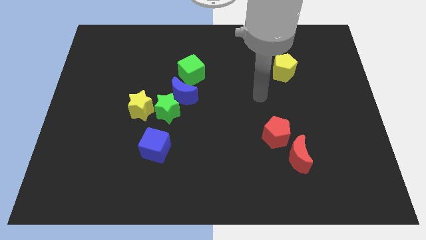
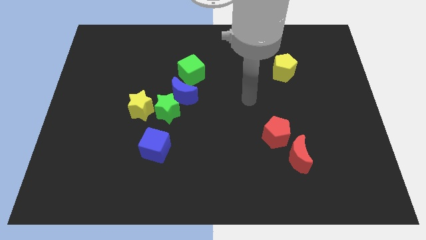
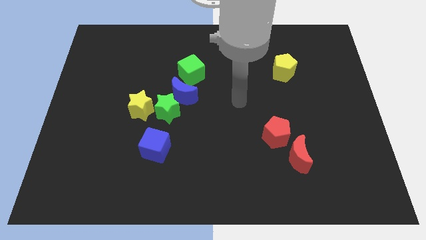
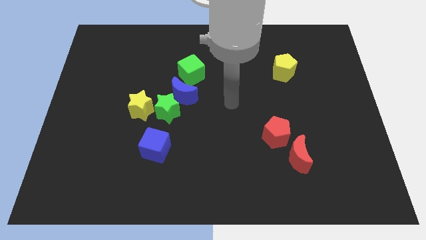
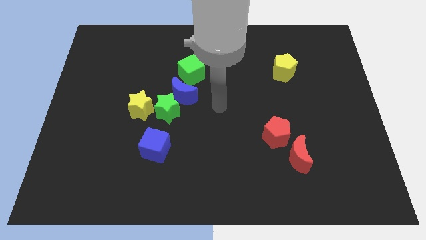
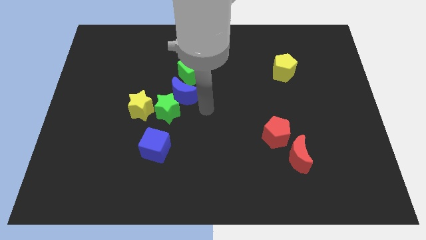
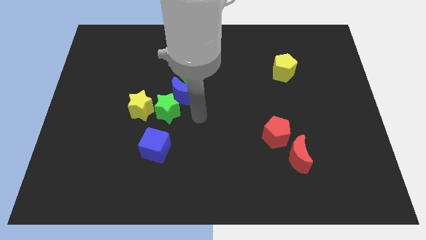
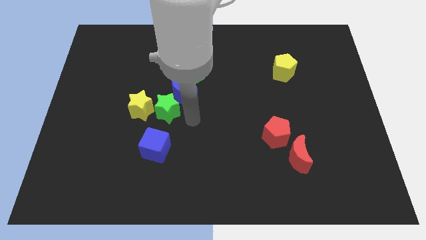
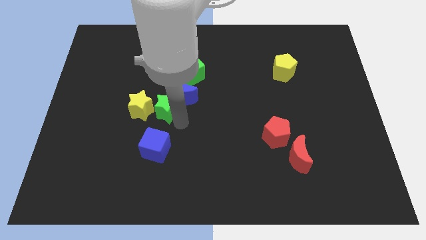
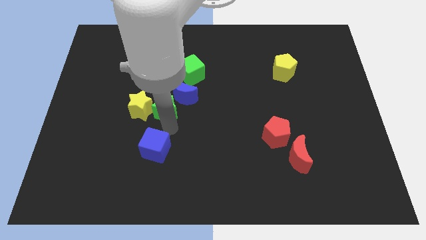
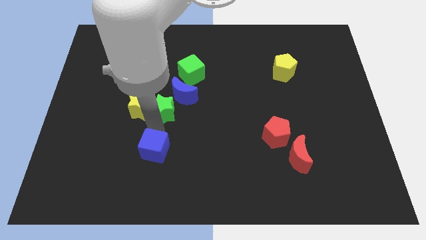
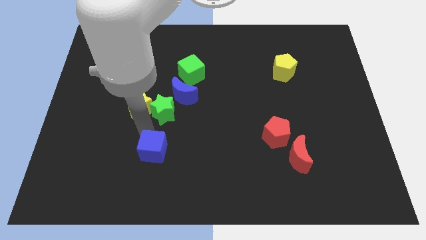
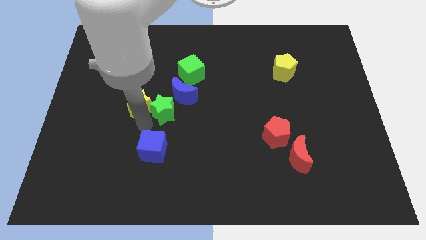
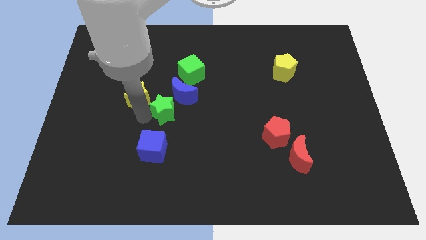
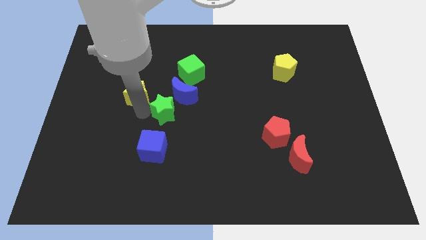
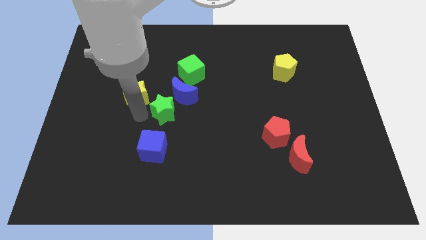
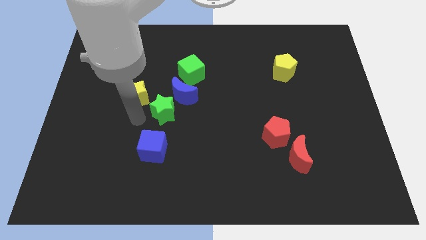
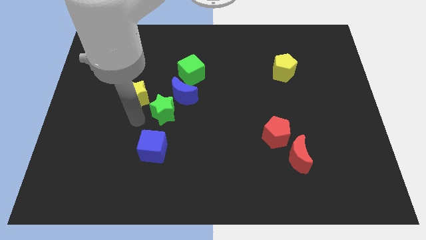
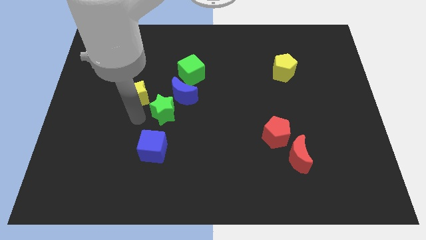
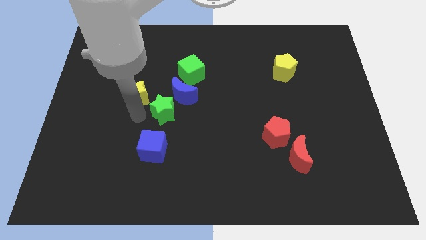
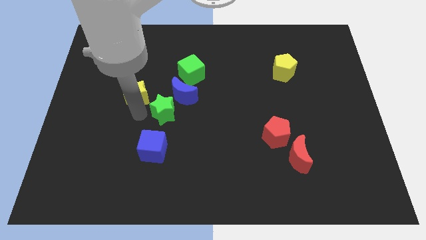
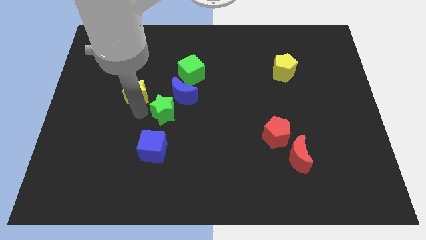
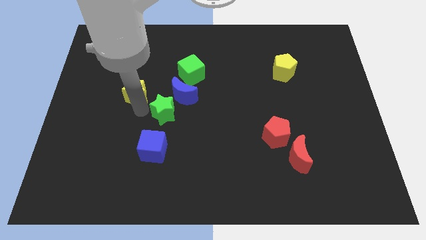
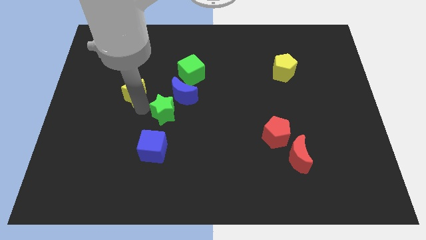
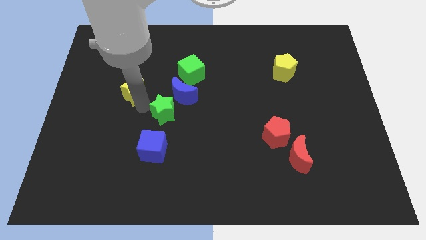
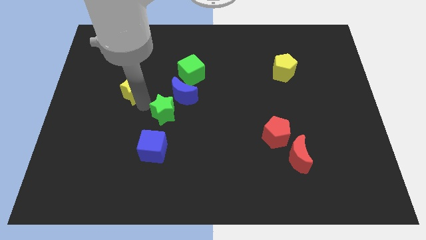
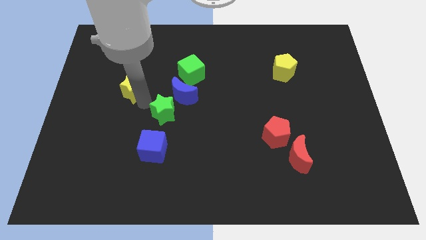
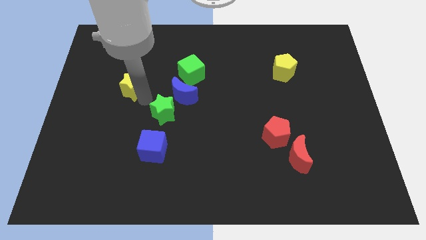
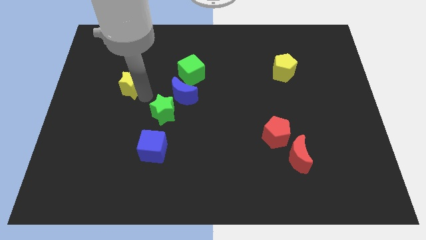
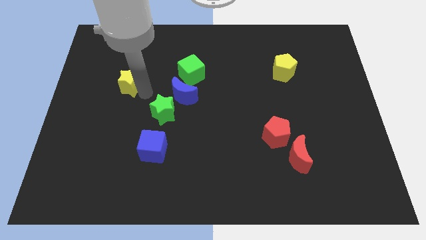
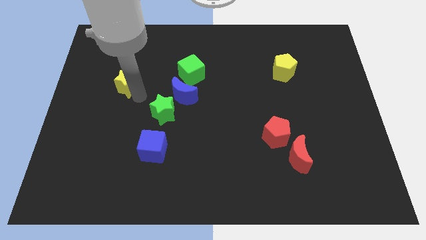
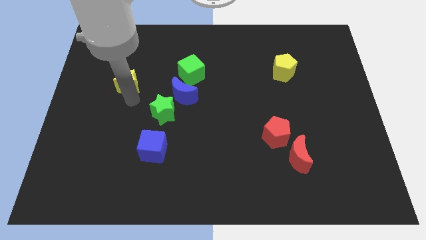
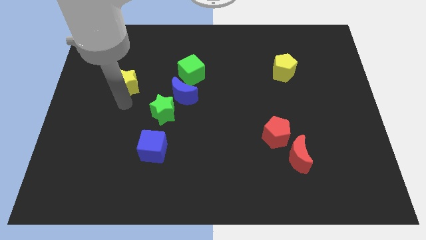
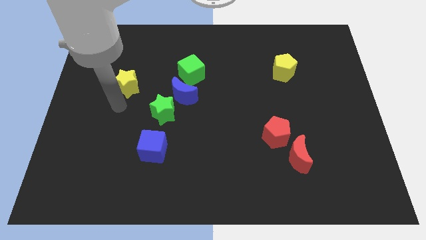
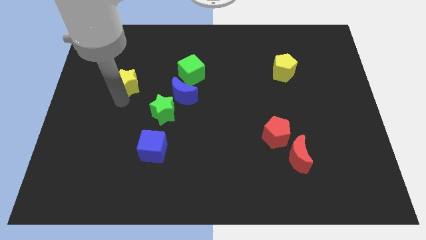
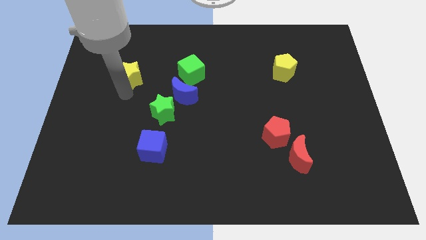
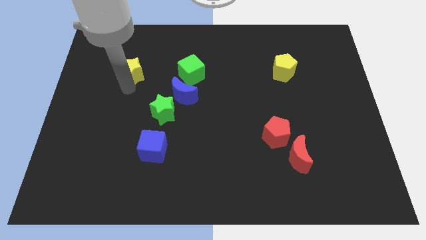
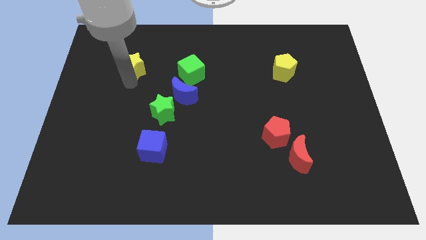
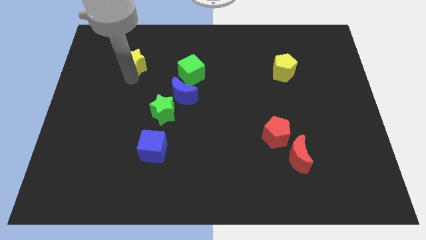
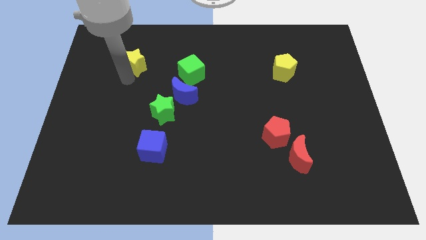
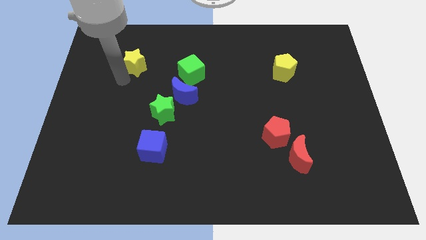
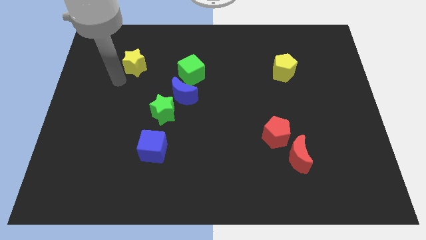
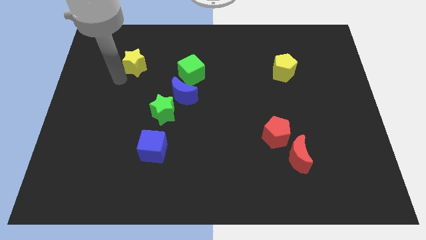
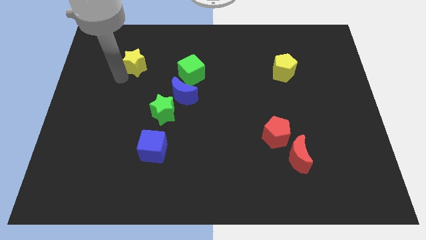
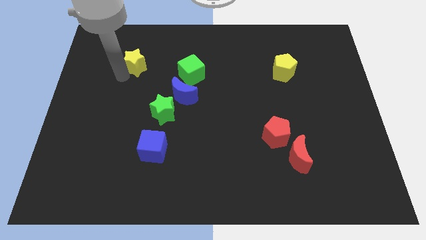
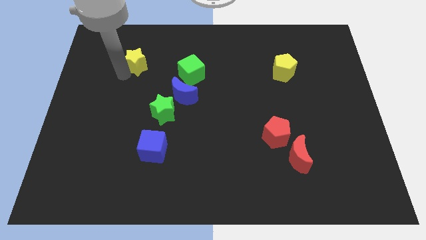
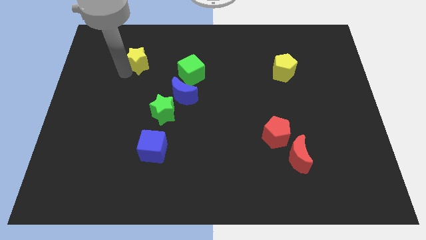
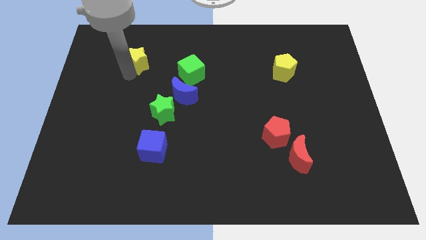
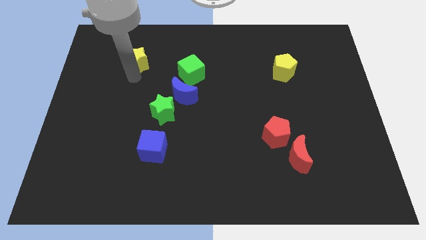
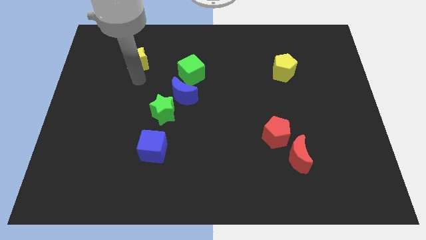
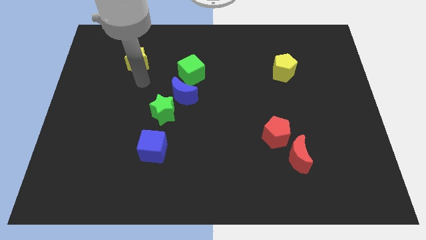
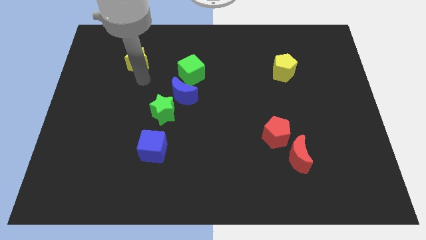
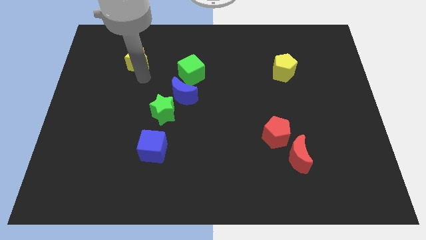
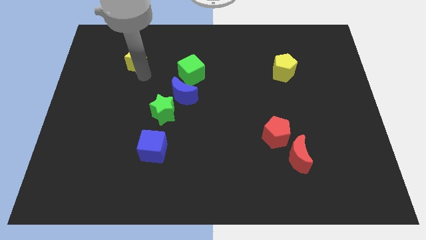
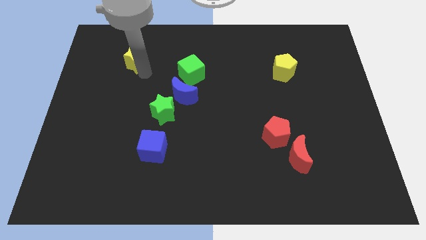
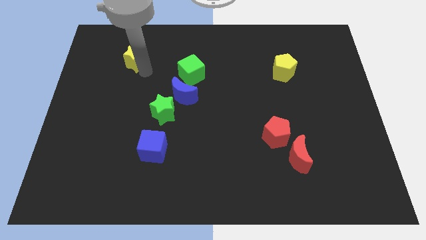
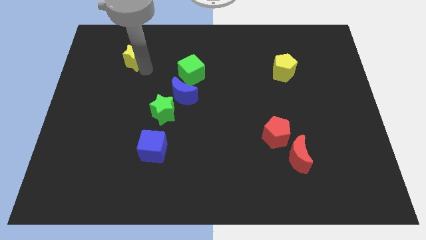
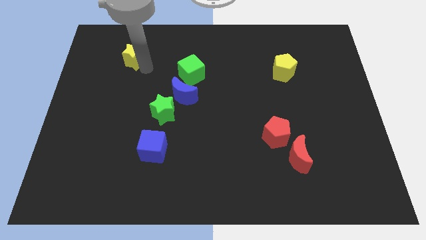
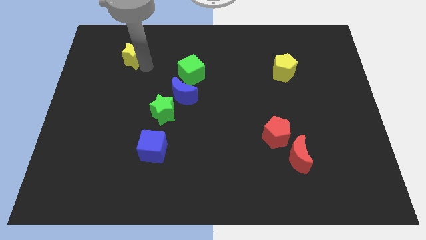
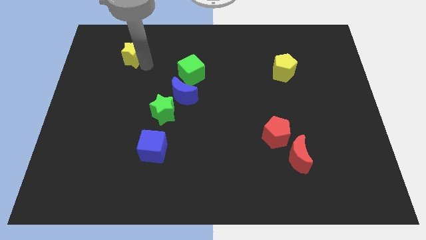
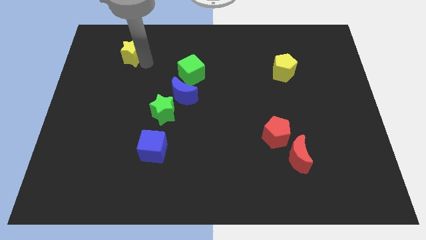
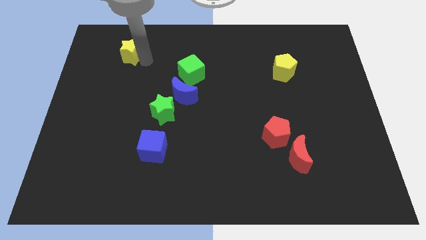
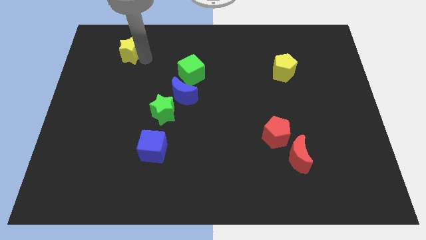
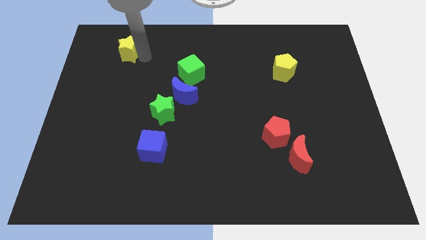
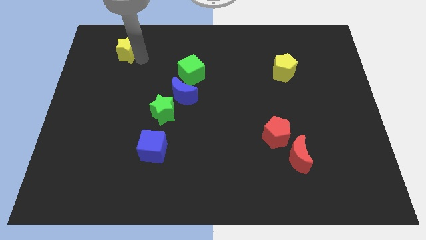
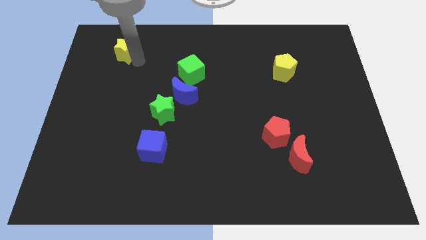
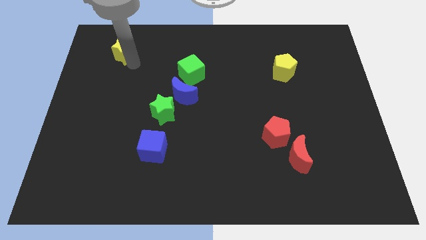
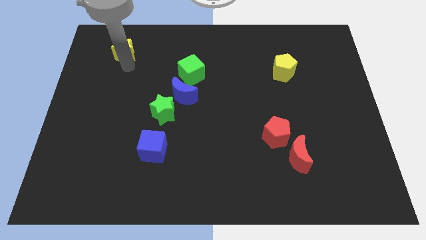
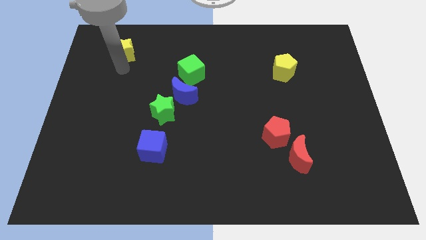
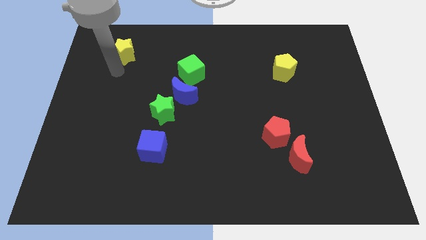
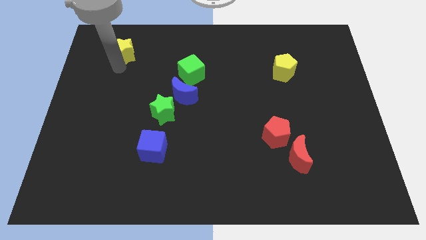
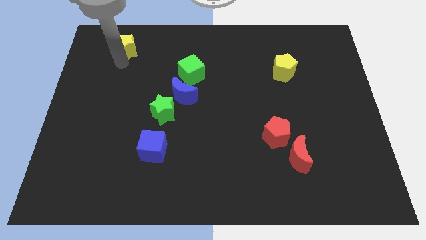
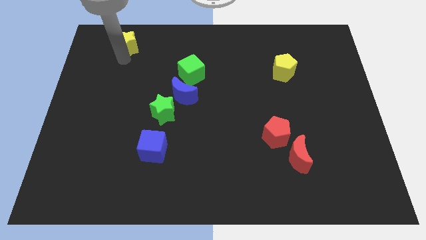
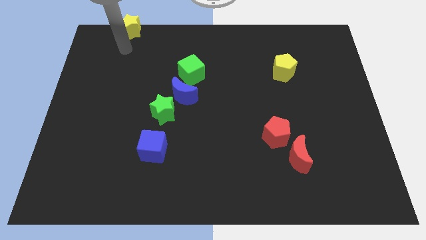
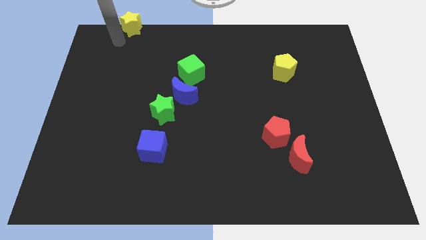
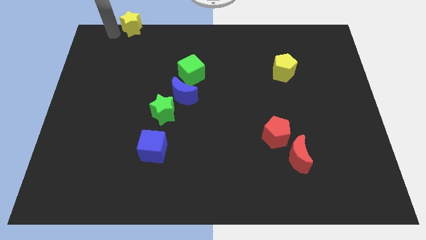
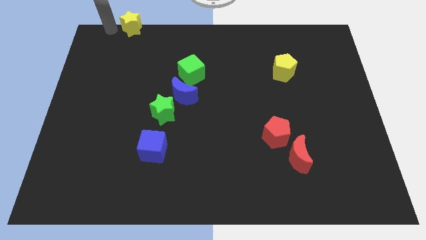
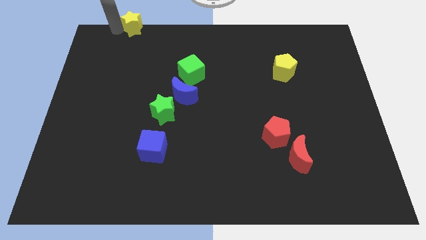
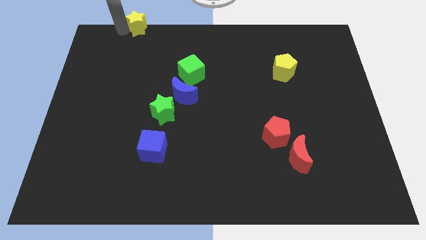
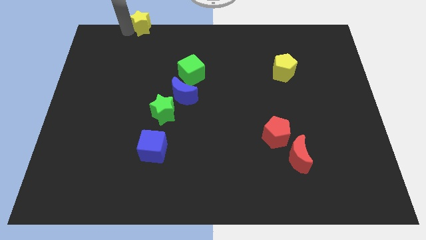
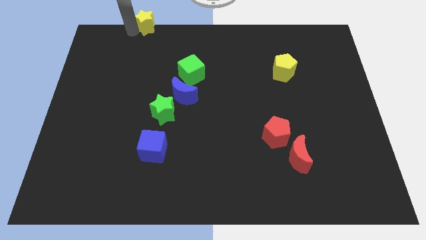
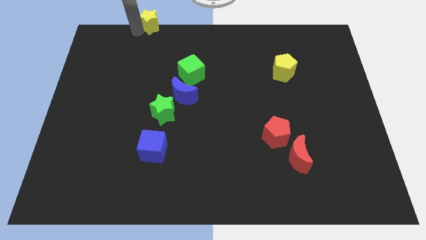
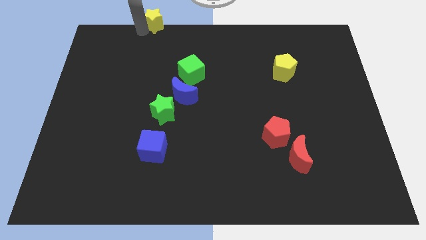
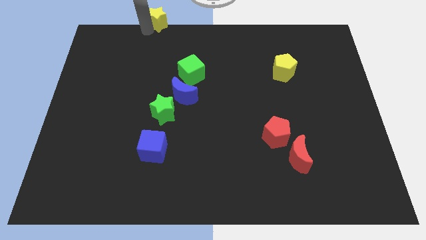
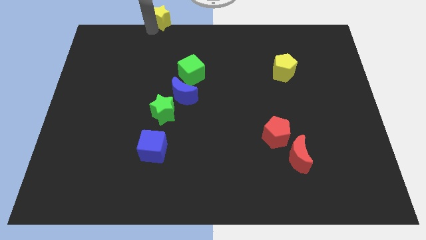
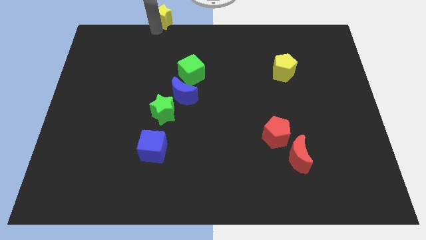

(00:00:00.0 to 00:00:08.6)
put the yellow star to the top
